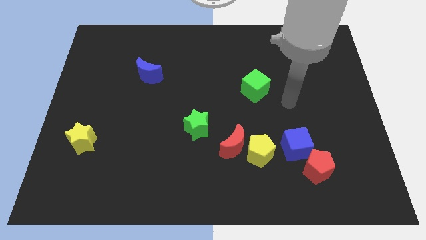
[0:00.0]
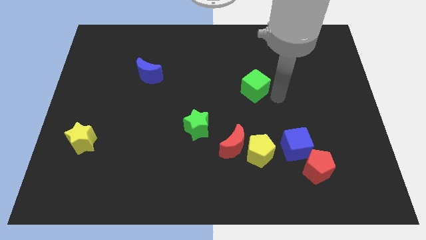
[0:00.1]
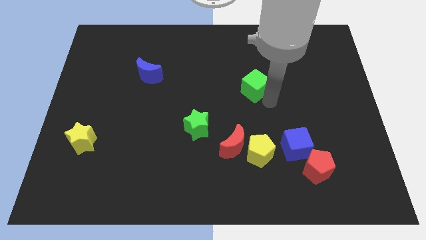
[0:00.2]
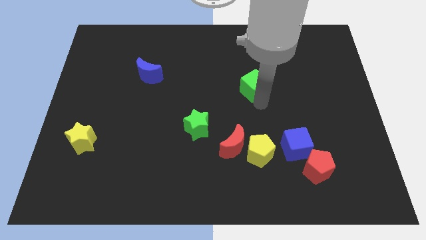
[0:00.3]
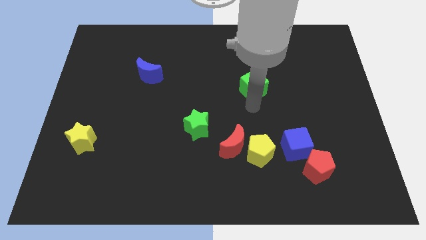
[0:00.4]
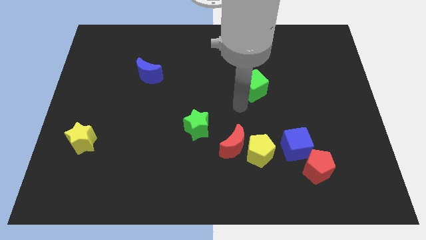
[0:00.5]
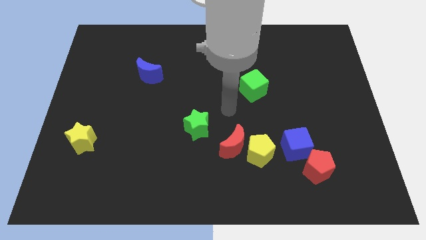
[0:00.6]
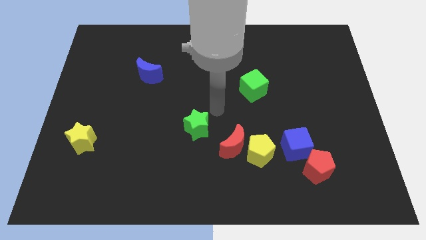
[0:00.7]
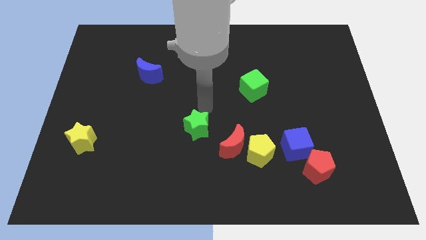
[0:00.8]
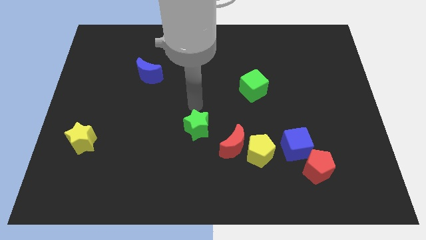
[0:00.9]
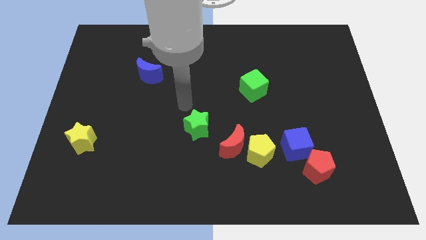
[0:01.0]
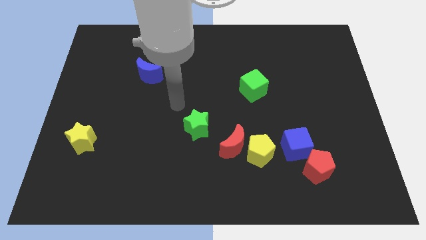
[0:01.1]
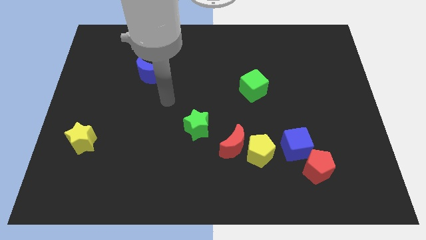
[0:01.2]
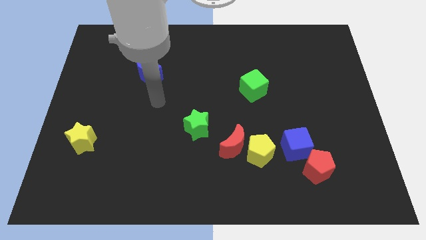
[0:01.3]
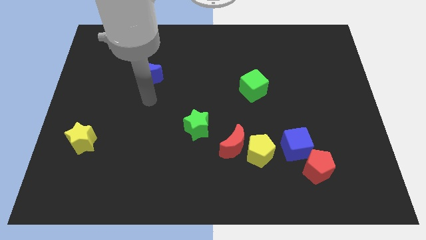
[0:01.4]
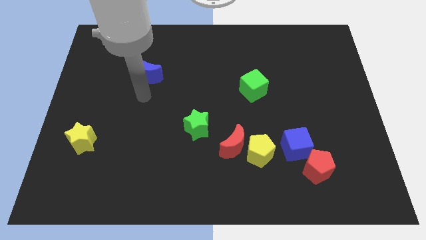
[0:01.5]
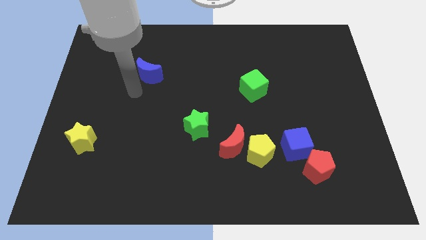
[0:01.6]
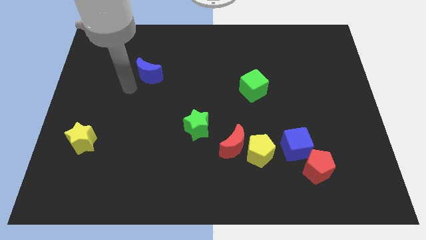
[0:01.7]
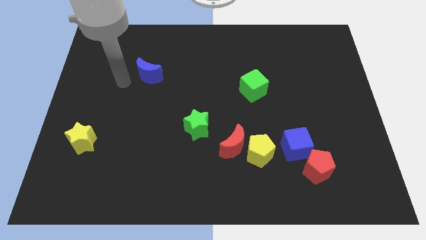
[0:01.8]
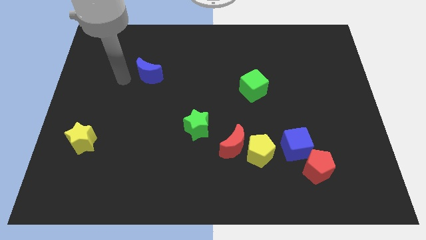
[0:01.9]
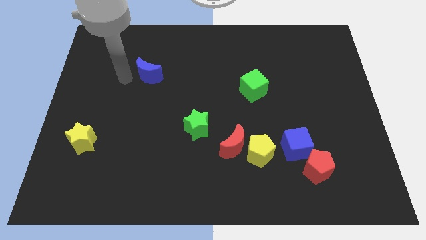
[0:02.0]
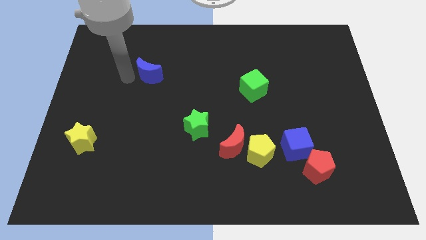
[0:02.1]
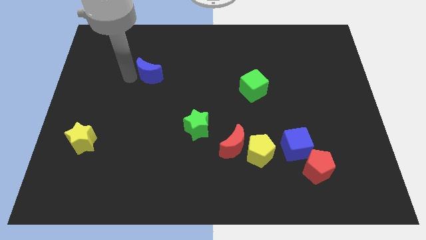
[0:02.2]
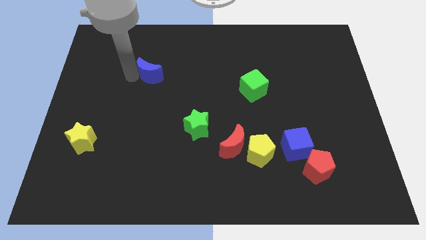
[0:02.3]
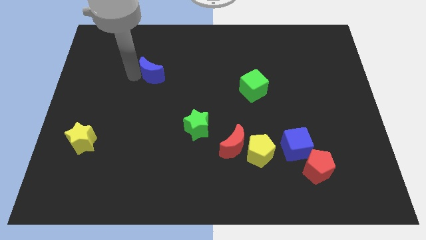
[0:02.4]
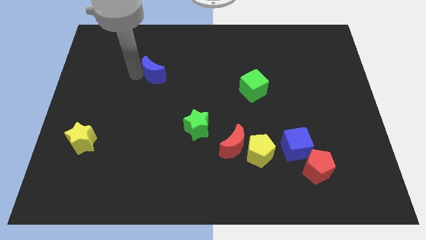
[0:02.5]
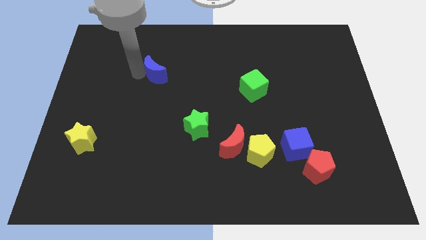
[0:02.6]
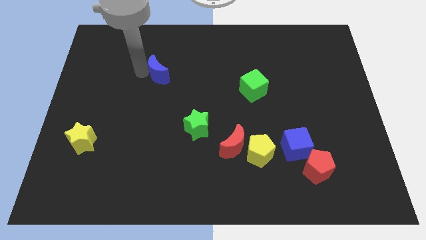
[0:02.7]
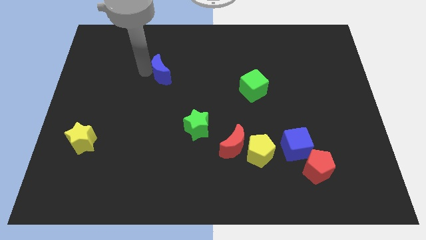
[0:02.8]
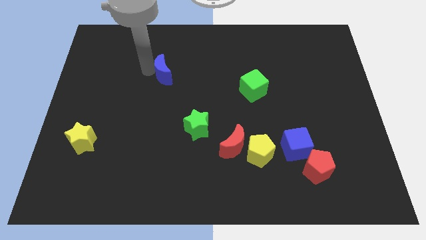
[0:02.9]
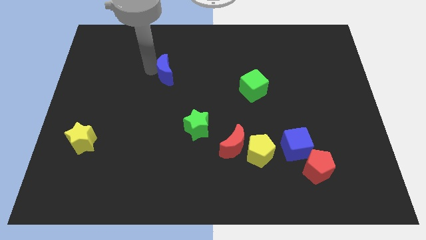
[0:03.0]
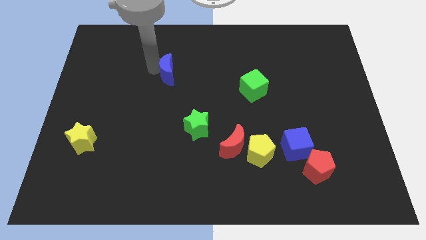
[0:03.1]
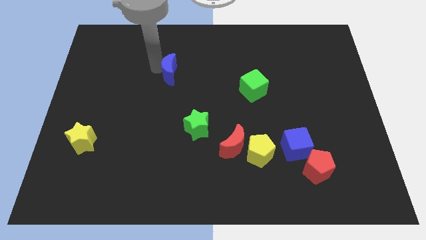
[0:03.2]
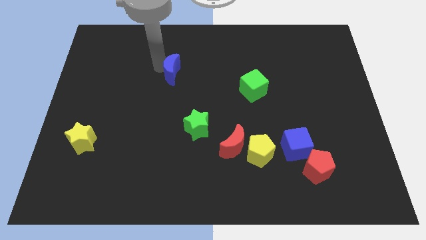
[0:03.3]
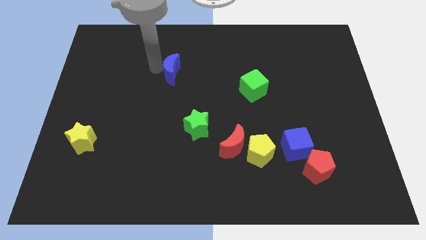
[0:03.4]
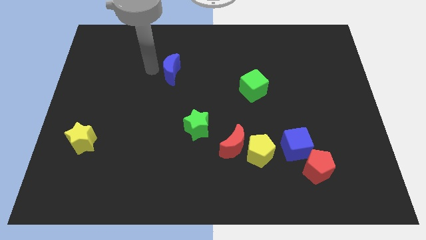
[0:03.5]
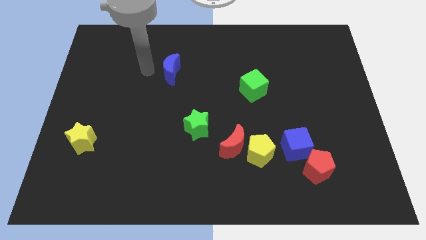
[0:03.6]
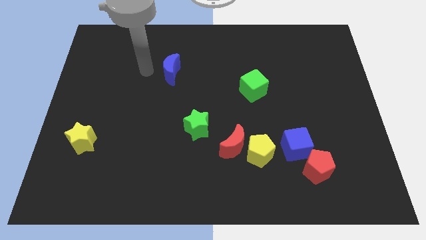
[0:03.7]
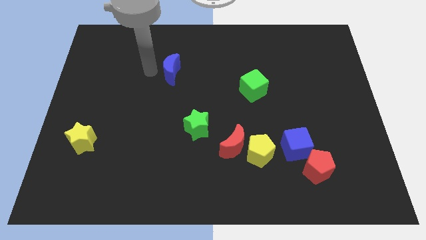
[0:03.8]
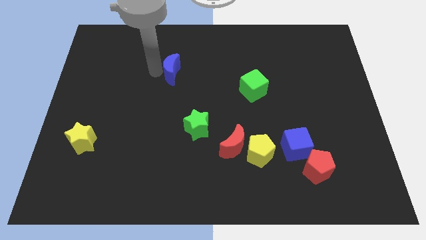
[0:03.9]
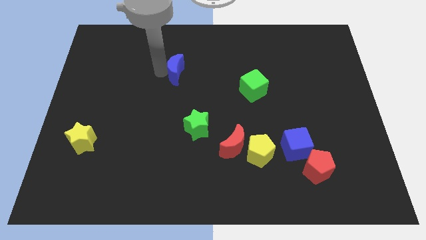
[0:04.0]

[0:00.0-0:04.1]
slide the blue moon slightly to the right

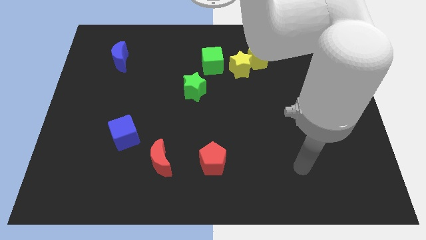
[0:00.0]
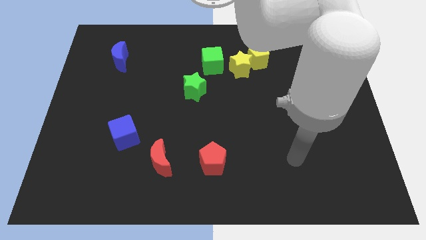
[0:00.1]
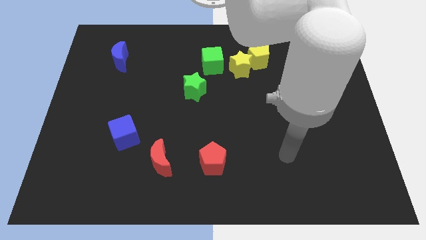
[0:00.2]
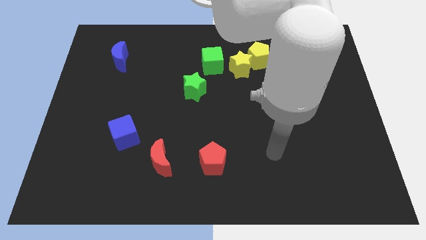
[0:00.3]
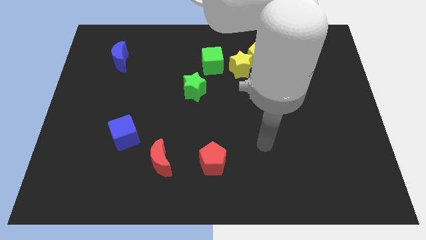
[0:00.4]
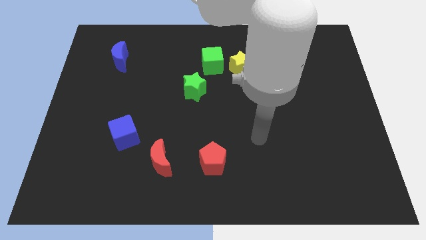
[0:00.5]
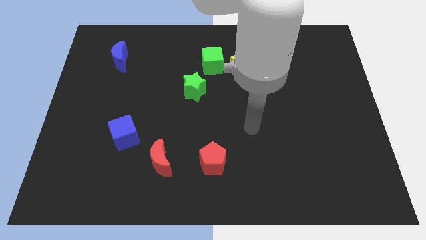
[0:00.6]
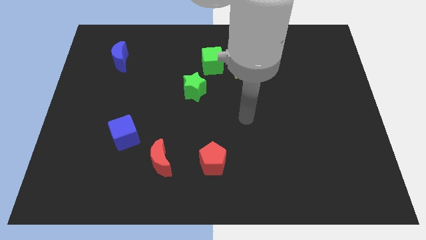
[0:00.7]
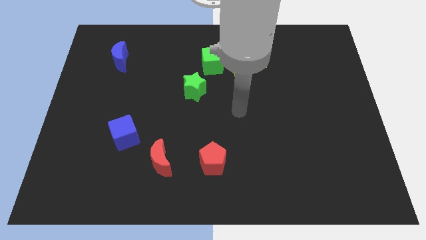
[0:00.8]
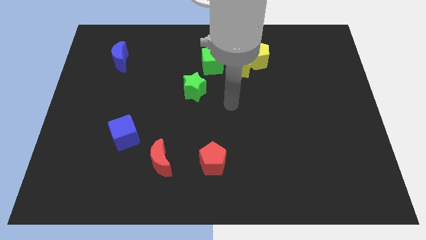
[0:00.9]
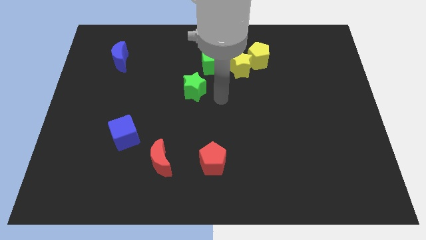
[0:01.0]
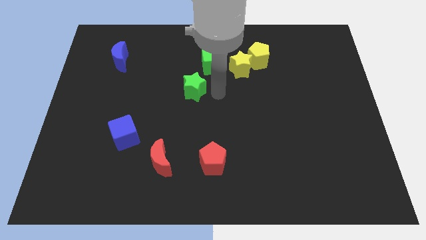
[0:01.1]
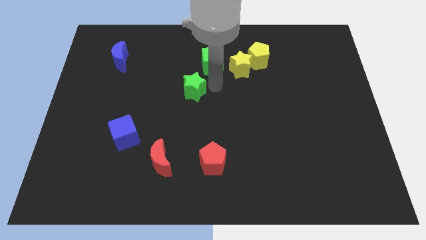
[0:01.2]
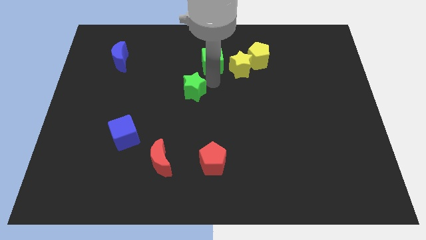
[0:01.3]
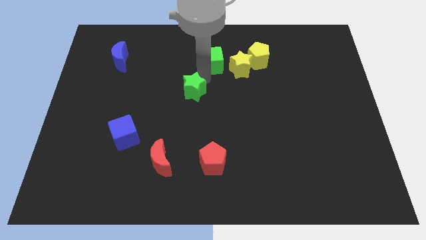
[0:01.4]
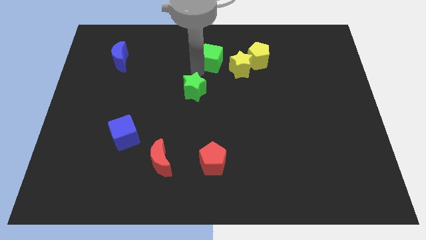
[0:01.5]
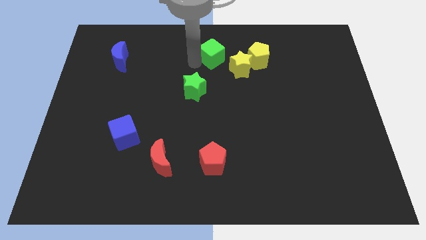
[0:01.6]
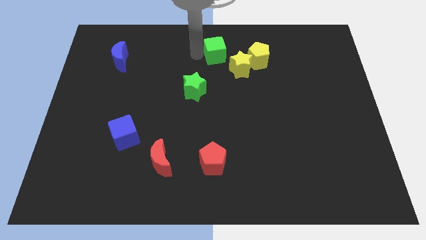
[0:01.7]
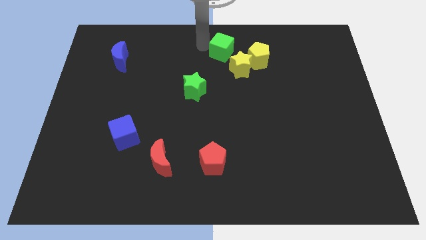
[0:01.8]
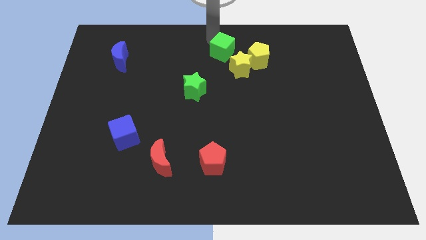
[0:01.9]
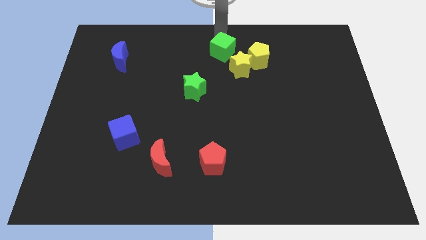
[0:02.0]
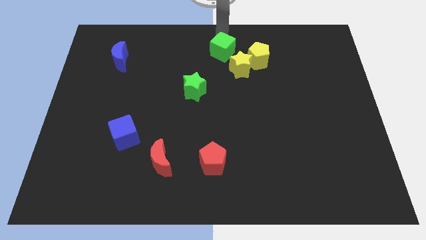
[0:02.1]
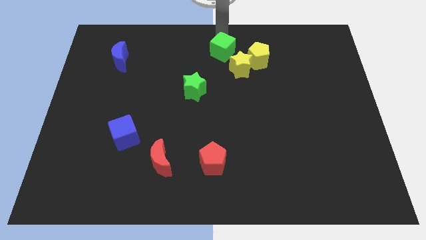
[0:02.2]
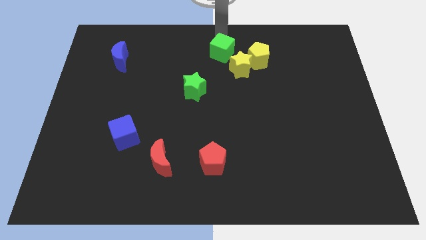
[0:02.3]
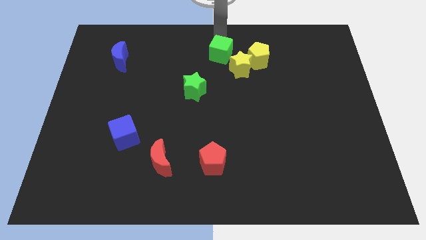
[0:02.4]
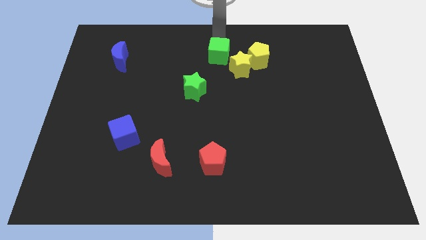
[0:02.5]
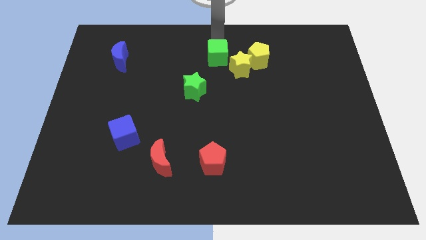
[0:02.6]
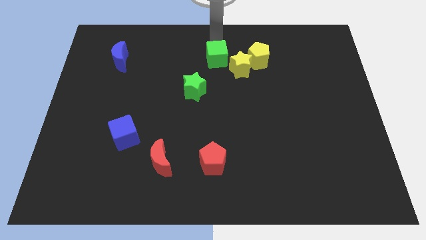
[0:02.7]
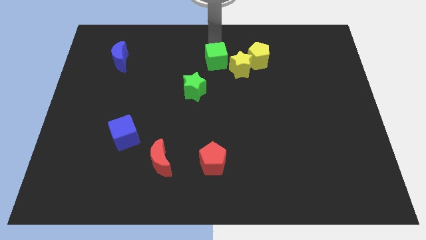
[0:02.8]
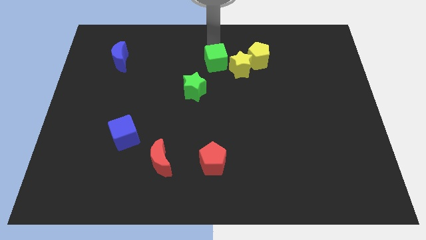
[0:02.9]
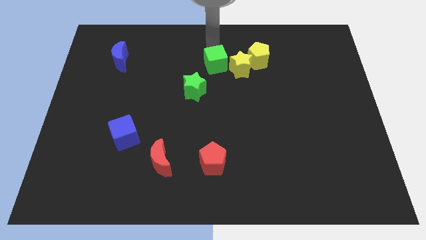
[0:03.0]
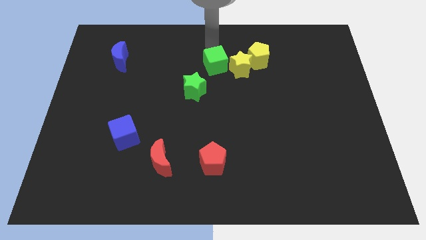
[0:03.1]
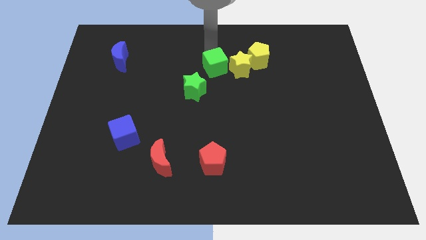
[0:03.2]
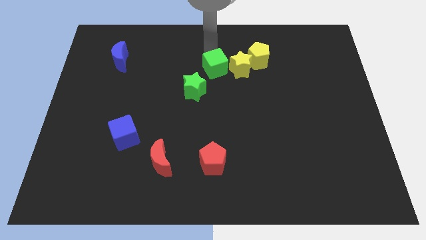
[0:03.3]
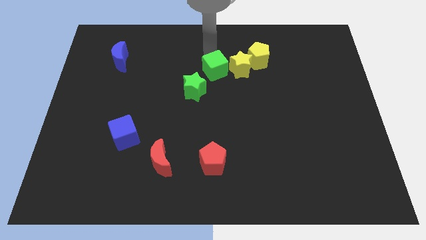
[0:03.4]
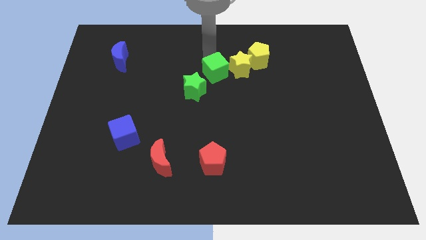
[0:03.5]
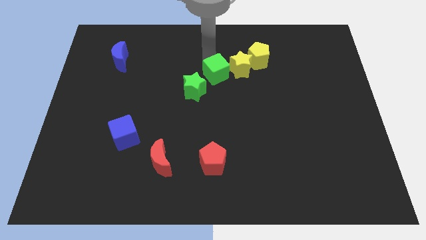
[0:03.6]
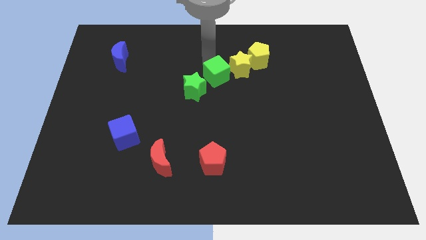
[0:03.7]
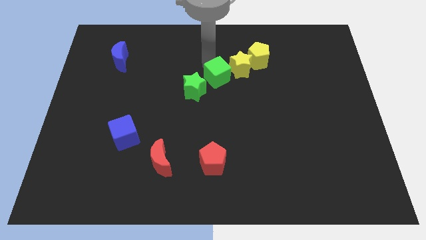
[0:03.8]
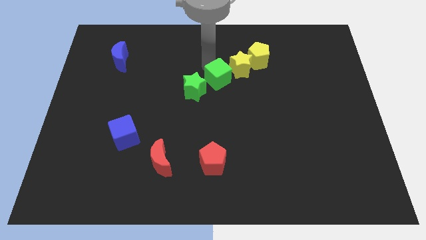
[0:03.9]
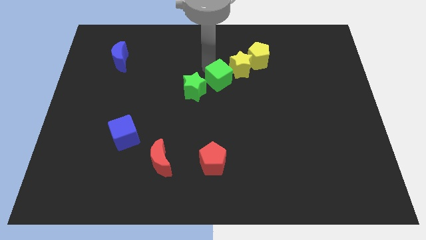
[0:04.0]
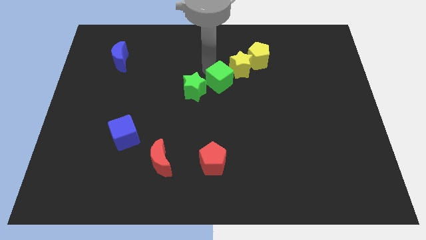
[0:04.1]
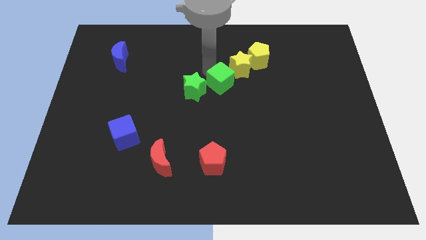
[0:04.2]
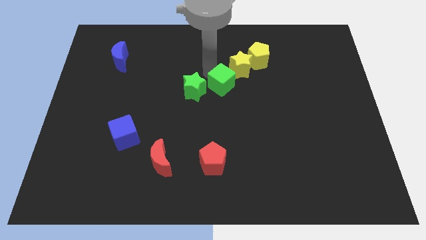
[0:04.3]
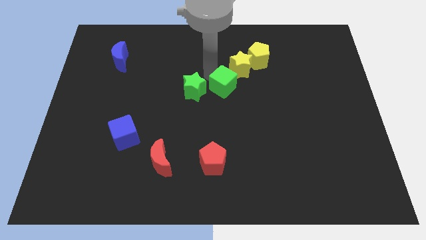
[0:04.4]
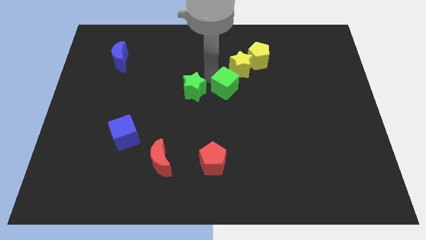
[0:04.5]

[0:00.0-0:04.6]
push the green cube downwards and right diagonally a bit
